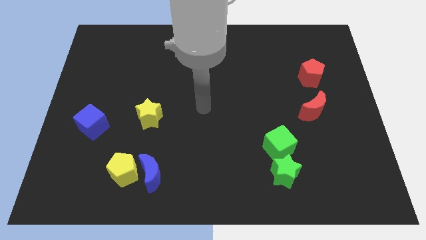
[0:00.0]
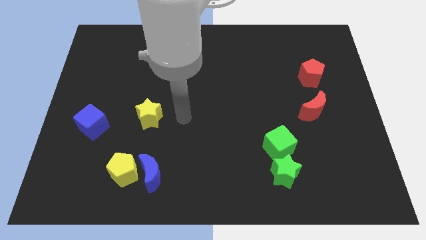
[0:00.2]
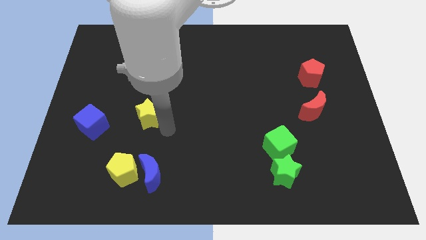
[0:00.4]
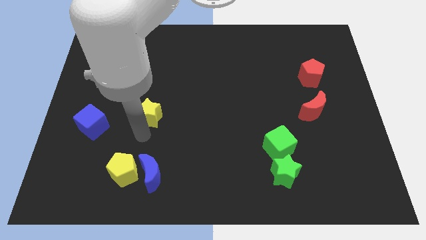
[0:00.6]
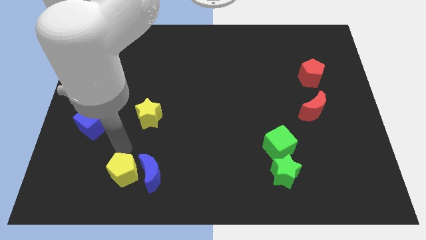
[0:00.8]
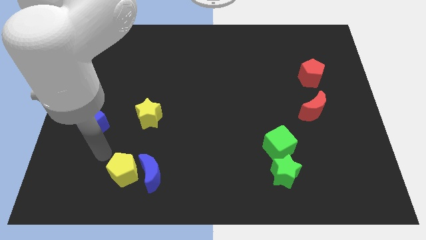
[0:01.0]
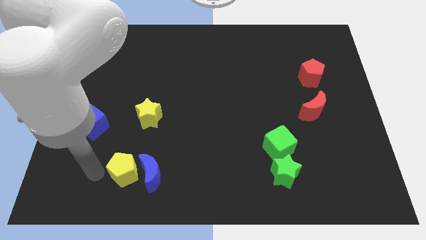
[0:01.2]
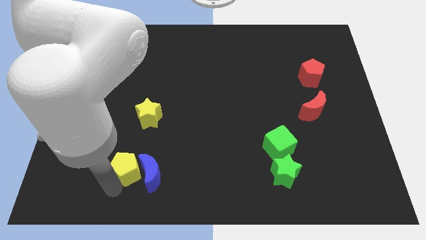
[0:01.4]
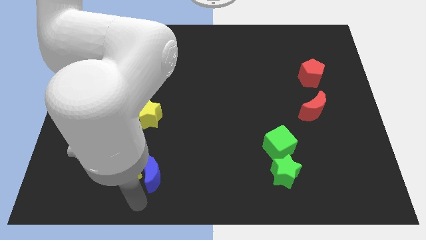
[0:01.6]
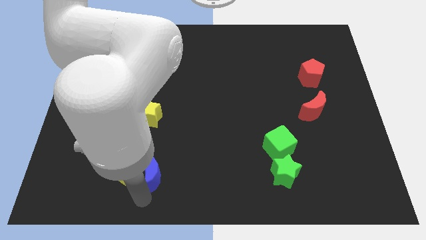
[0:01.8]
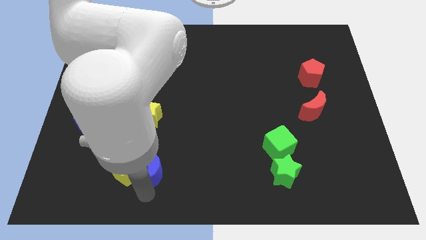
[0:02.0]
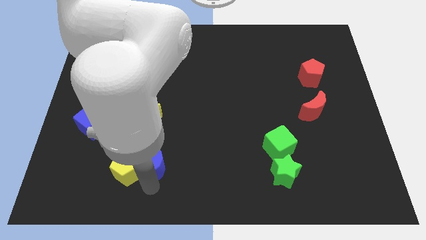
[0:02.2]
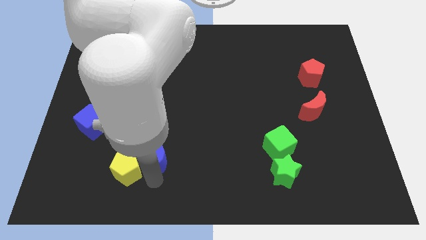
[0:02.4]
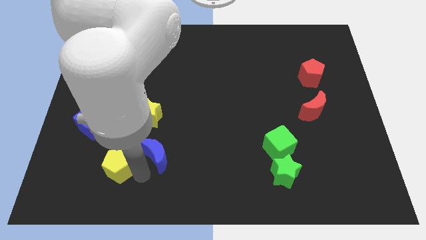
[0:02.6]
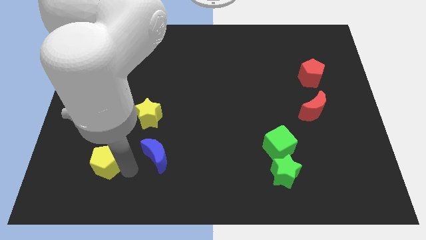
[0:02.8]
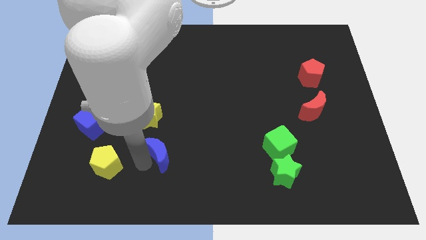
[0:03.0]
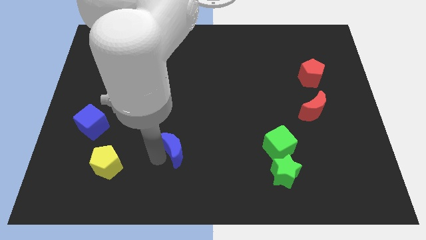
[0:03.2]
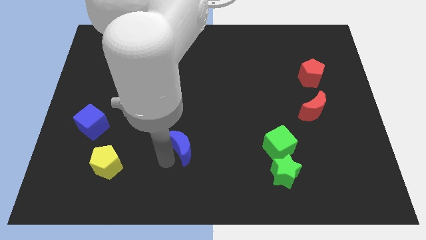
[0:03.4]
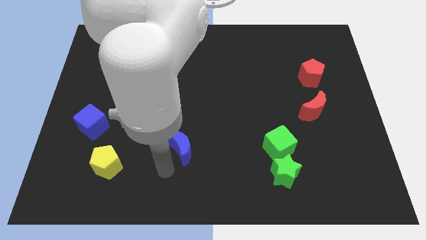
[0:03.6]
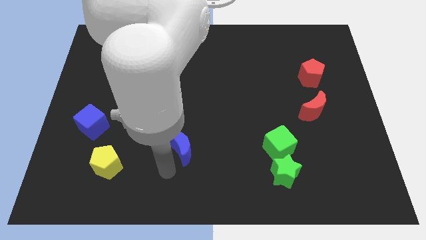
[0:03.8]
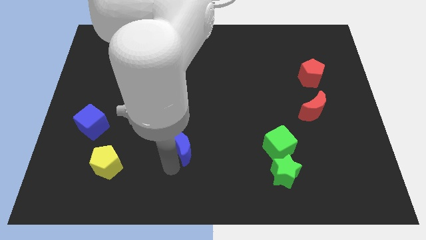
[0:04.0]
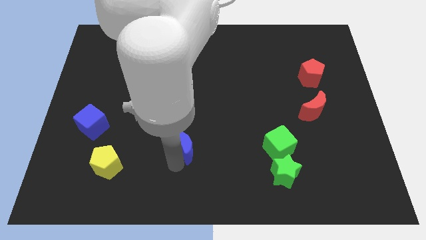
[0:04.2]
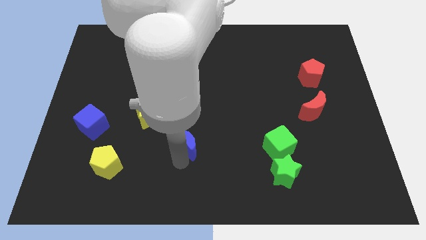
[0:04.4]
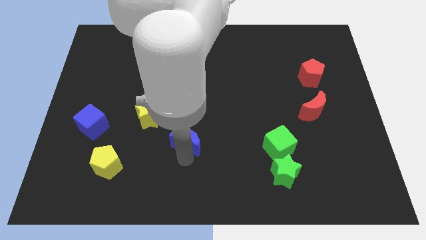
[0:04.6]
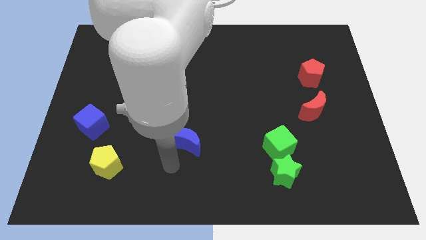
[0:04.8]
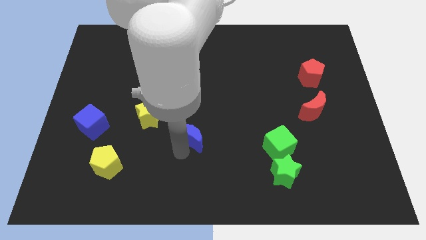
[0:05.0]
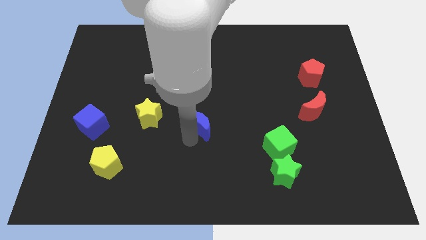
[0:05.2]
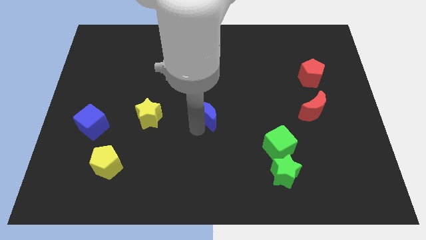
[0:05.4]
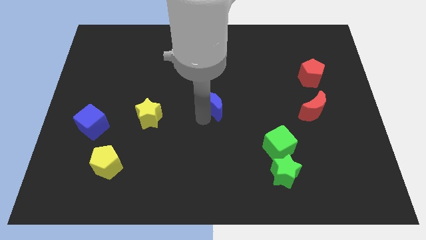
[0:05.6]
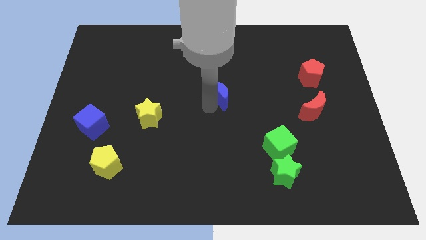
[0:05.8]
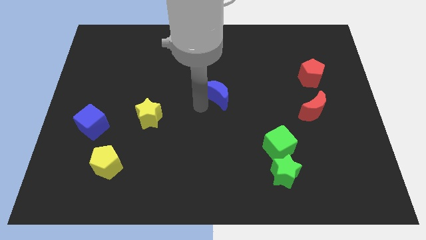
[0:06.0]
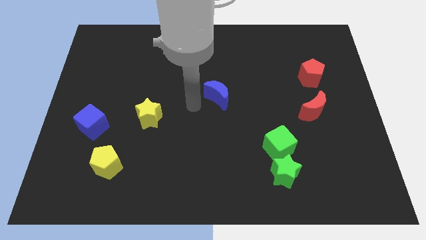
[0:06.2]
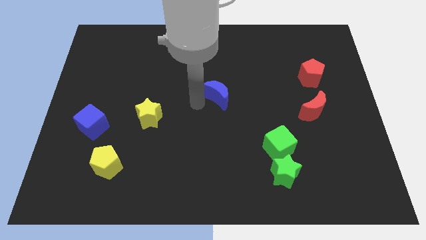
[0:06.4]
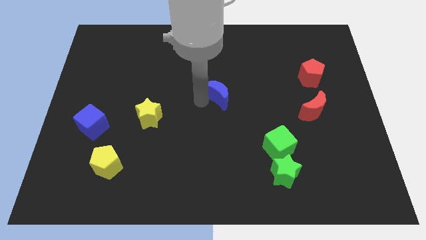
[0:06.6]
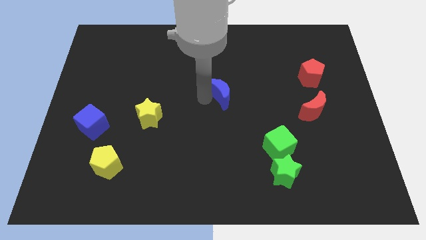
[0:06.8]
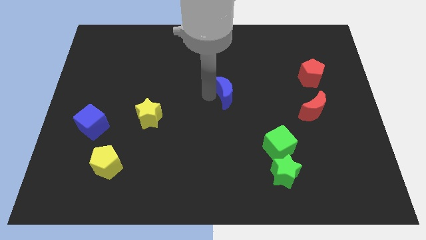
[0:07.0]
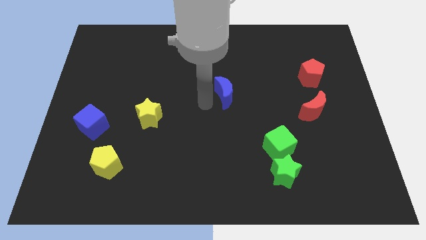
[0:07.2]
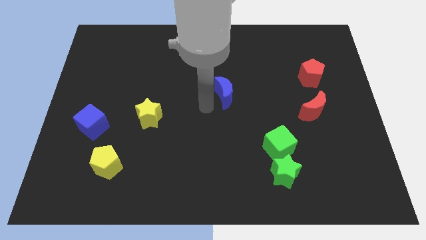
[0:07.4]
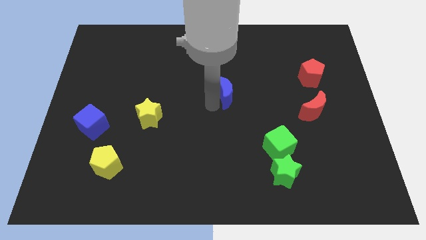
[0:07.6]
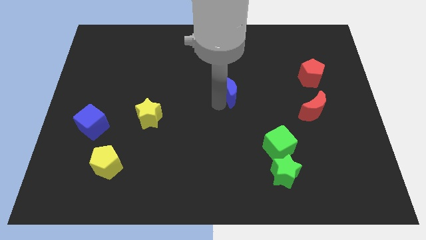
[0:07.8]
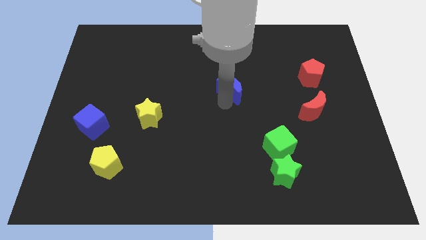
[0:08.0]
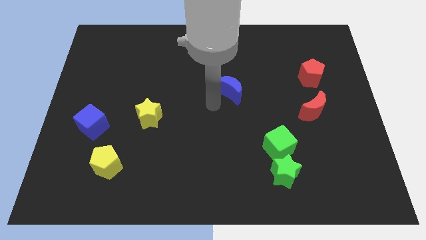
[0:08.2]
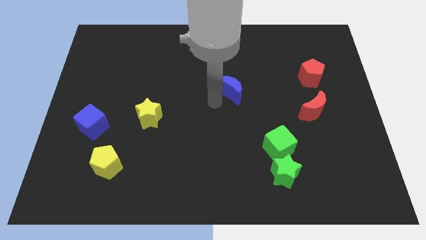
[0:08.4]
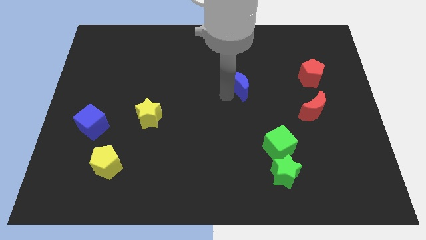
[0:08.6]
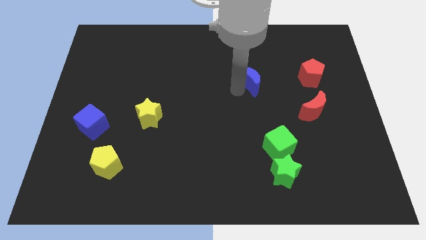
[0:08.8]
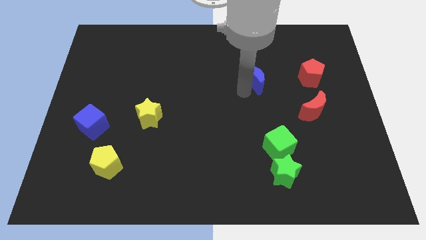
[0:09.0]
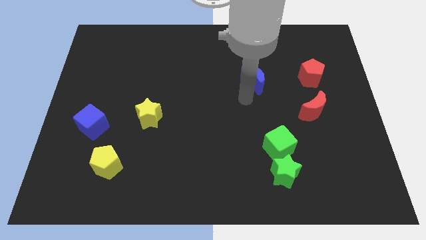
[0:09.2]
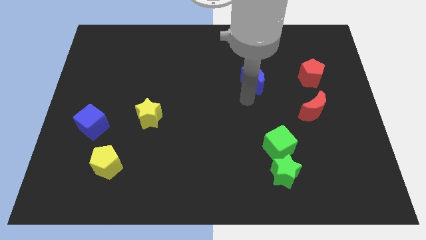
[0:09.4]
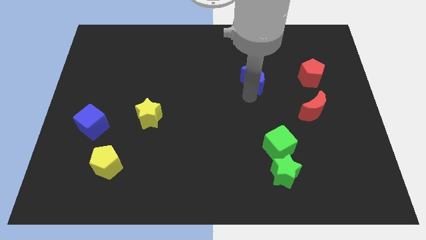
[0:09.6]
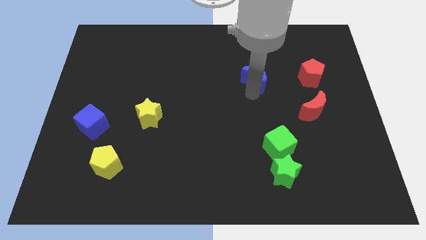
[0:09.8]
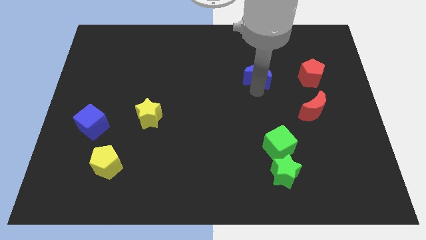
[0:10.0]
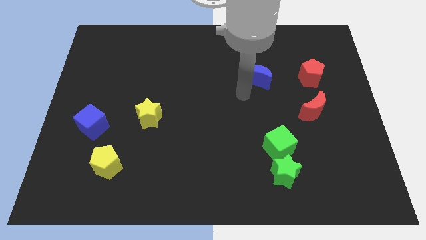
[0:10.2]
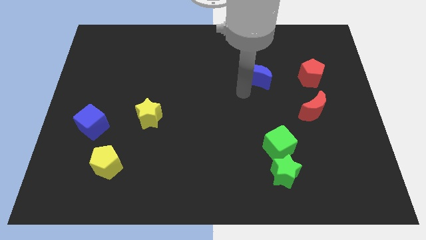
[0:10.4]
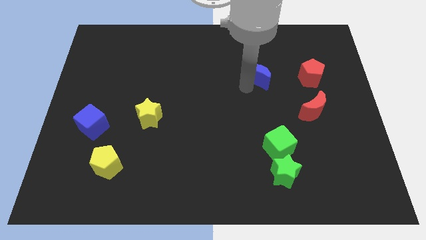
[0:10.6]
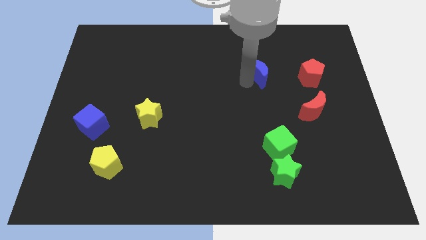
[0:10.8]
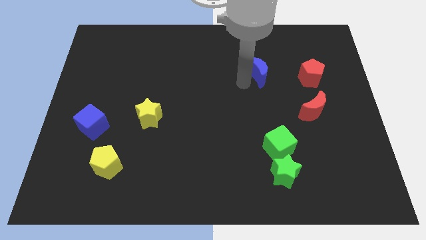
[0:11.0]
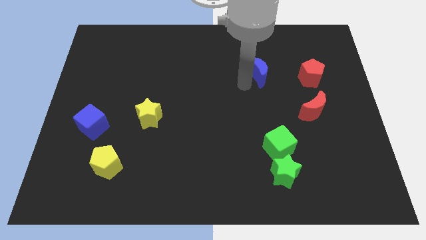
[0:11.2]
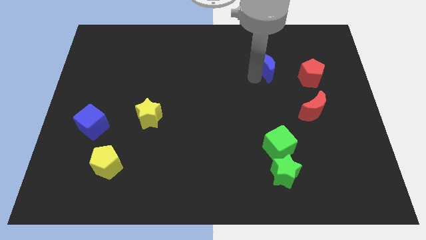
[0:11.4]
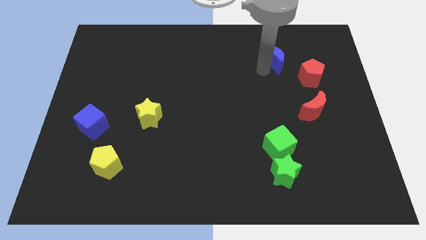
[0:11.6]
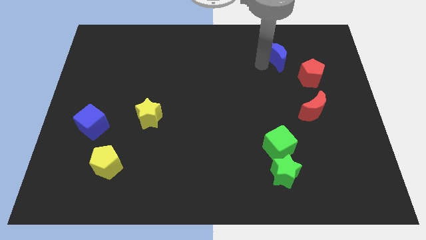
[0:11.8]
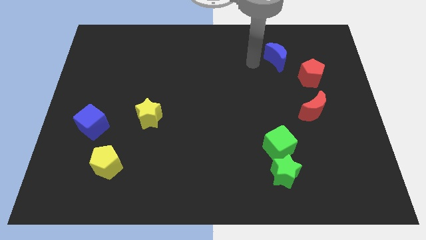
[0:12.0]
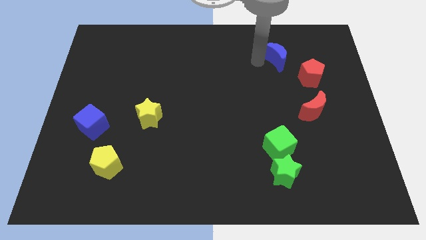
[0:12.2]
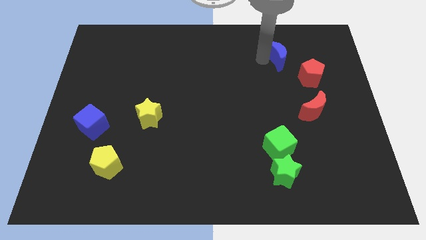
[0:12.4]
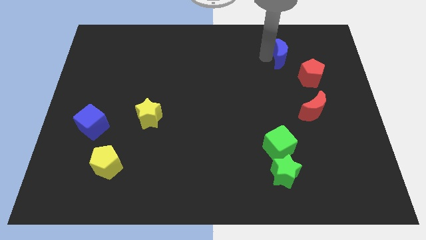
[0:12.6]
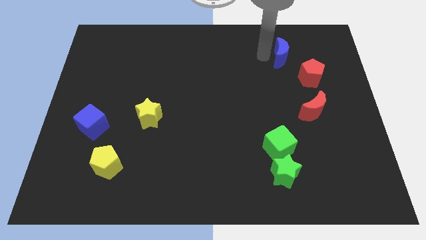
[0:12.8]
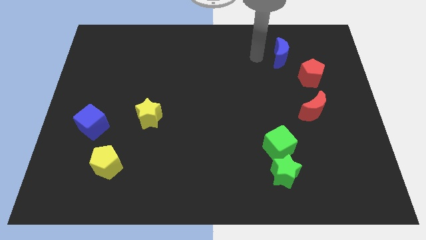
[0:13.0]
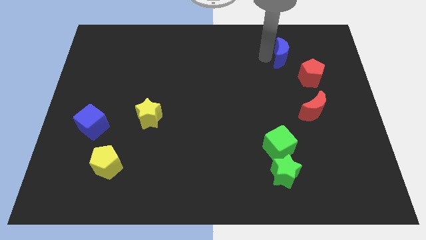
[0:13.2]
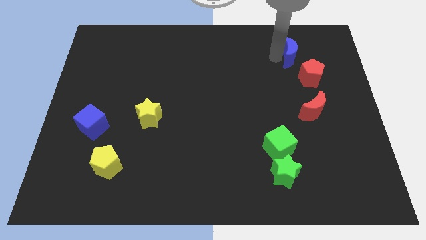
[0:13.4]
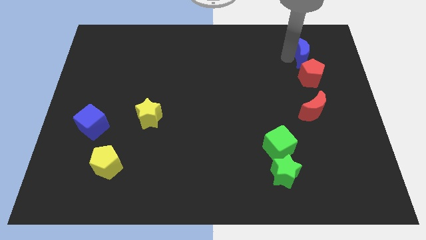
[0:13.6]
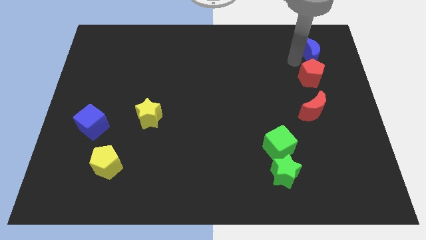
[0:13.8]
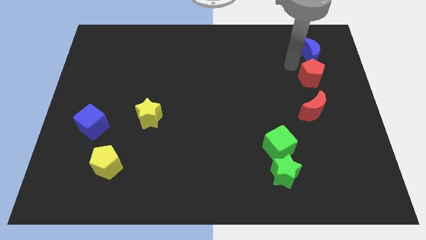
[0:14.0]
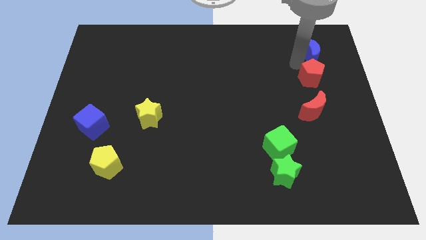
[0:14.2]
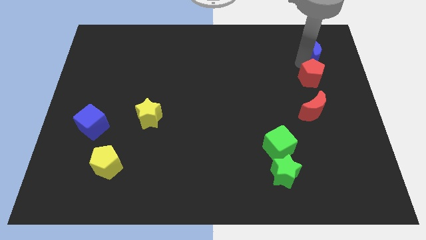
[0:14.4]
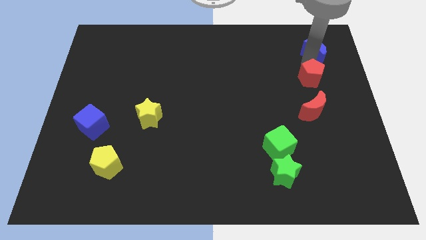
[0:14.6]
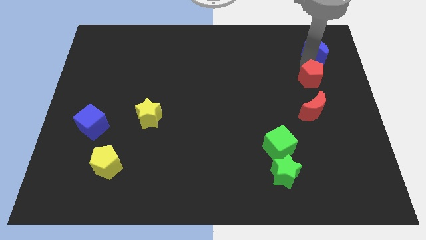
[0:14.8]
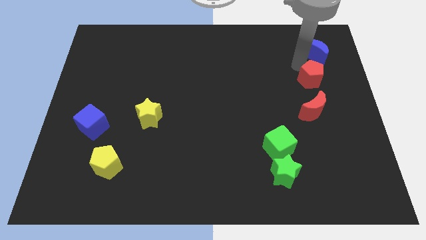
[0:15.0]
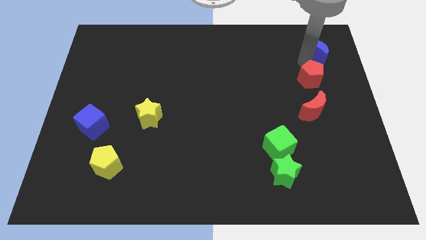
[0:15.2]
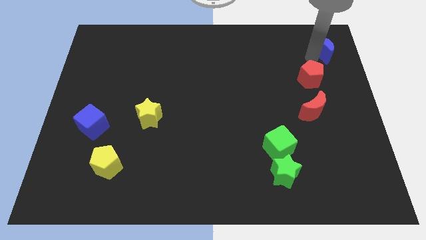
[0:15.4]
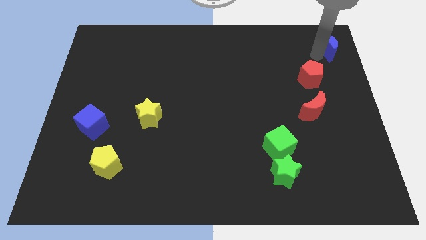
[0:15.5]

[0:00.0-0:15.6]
push the blue moon to the top right
